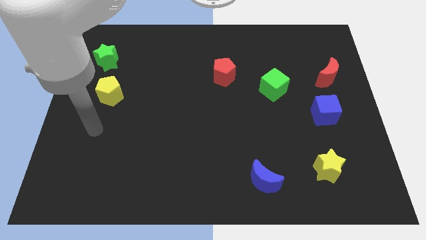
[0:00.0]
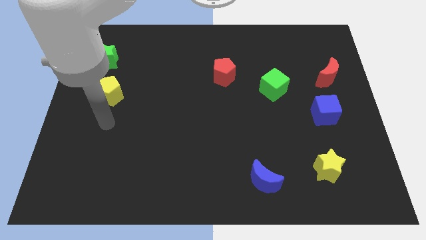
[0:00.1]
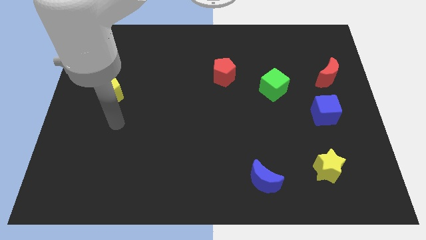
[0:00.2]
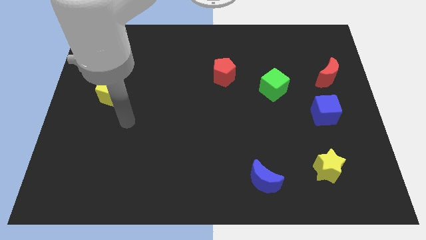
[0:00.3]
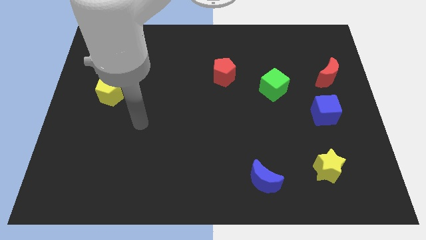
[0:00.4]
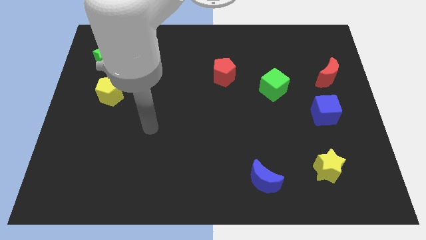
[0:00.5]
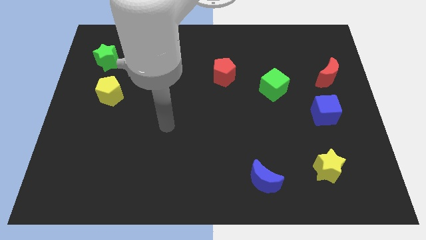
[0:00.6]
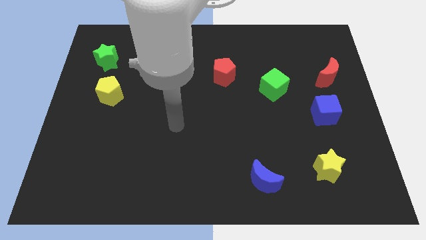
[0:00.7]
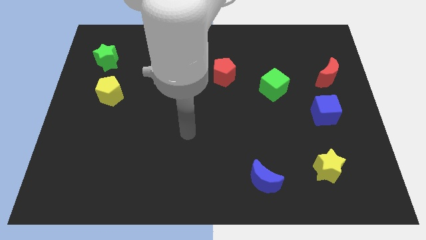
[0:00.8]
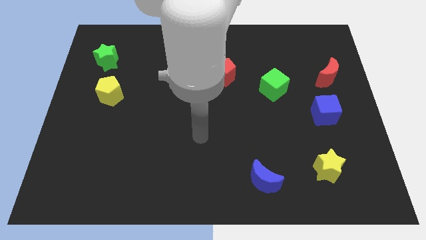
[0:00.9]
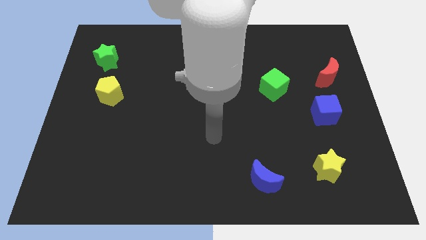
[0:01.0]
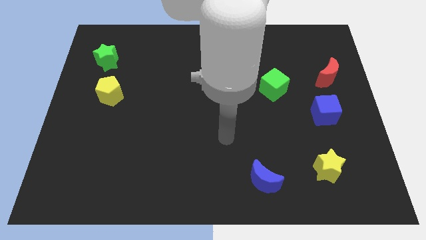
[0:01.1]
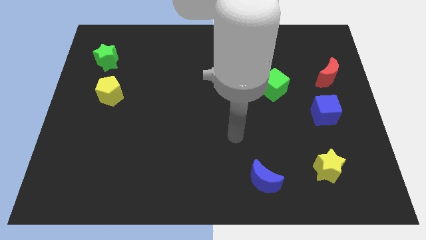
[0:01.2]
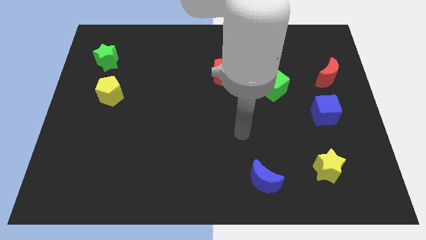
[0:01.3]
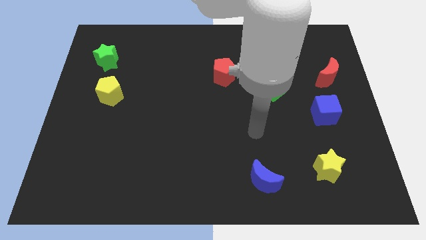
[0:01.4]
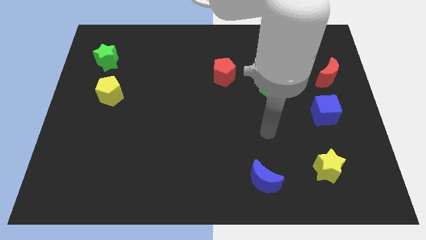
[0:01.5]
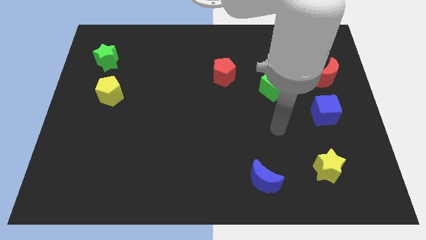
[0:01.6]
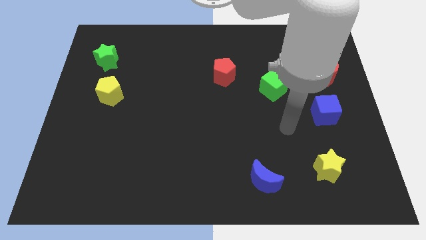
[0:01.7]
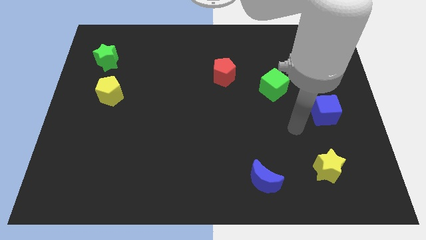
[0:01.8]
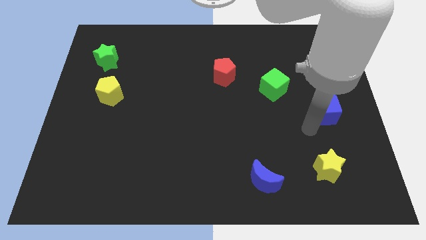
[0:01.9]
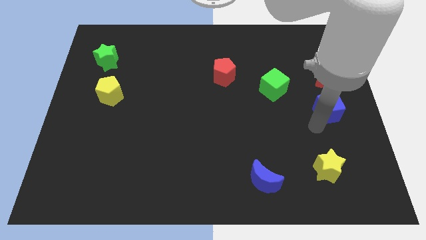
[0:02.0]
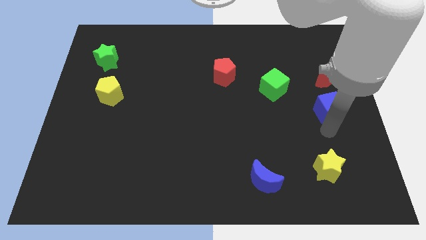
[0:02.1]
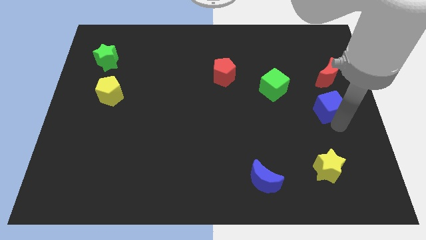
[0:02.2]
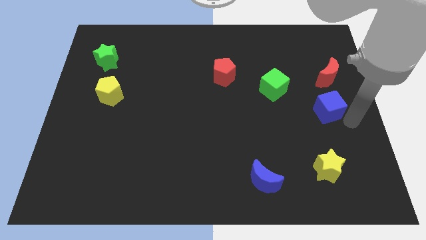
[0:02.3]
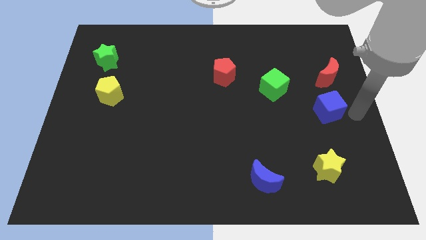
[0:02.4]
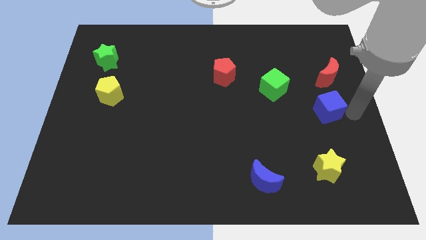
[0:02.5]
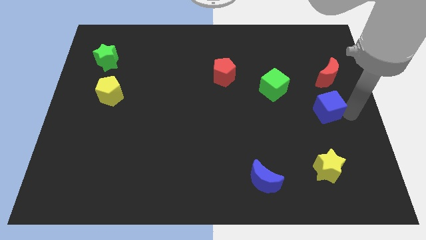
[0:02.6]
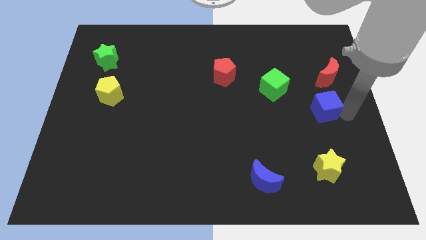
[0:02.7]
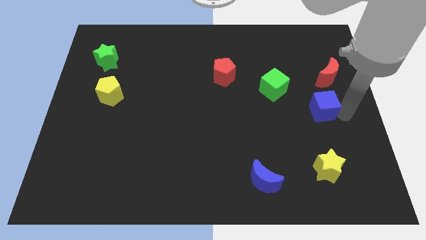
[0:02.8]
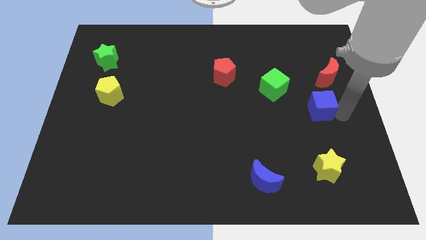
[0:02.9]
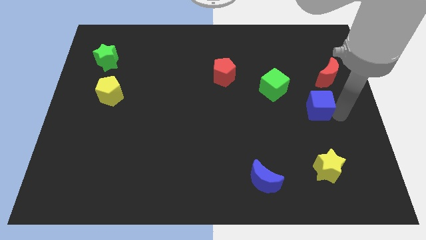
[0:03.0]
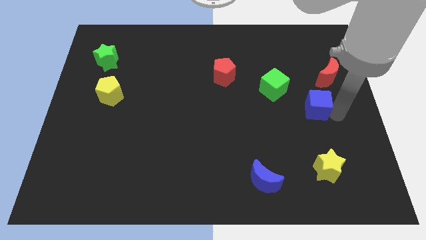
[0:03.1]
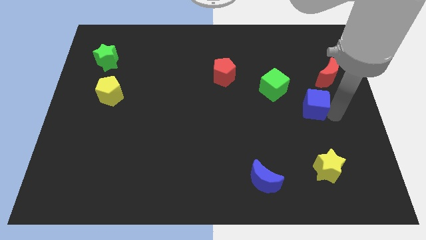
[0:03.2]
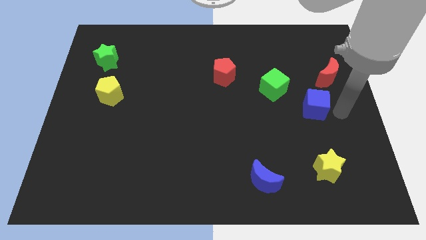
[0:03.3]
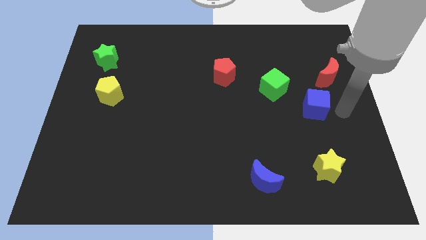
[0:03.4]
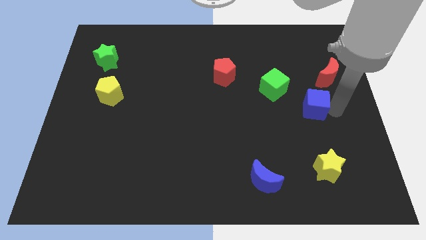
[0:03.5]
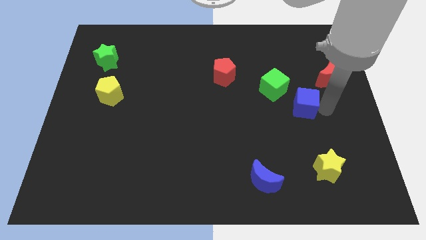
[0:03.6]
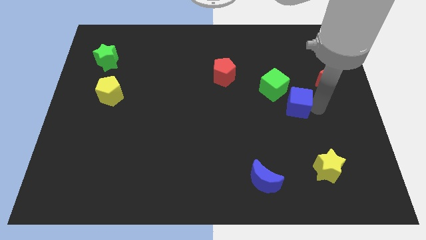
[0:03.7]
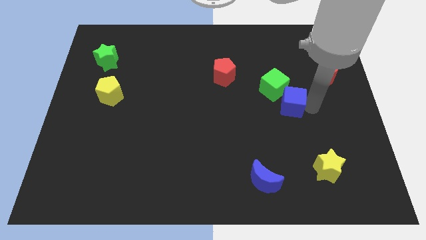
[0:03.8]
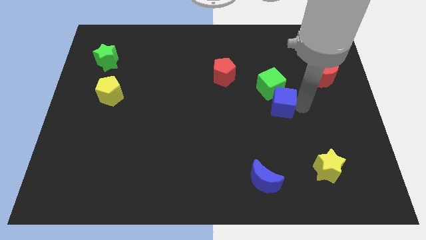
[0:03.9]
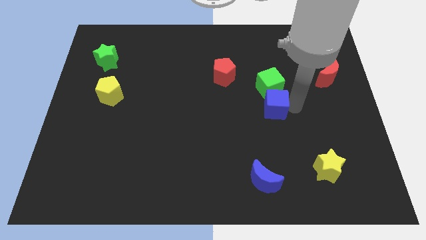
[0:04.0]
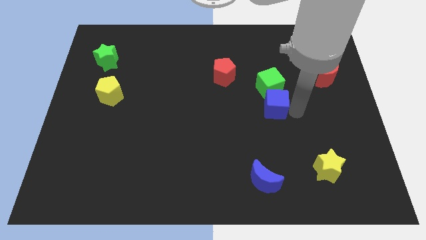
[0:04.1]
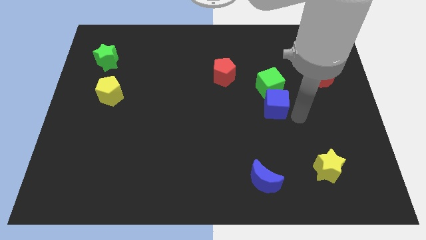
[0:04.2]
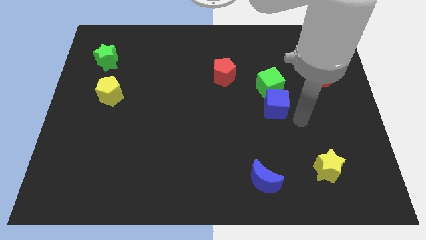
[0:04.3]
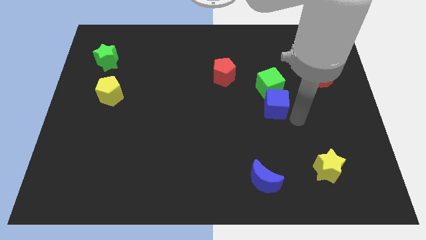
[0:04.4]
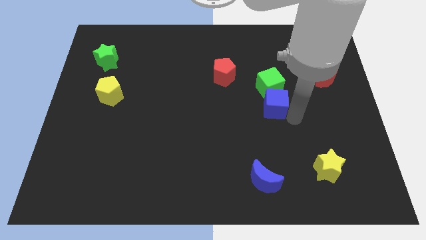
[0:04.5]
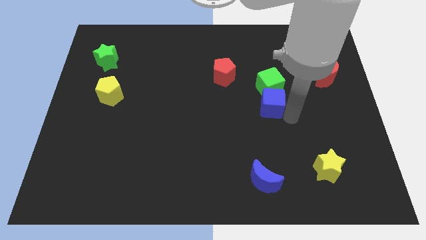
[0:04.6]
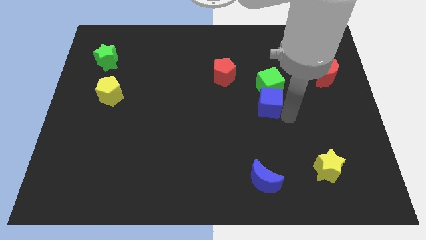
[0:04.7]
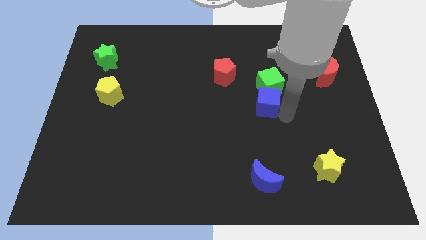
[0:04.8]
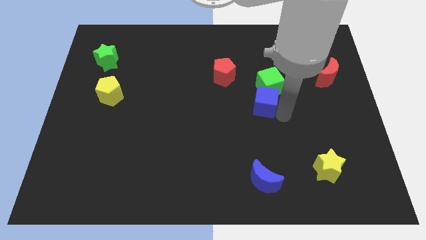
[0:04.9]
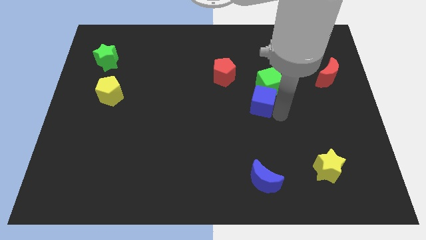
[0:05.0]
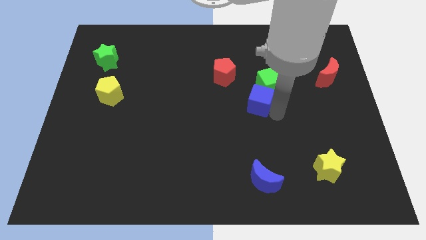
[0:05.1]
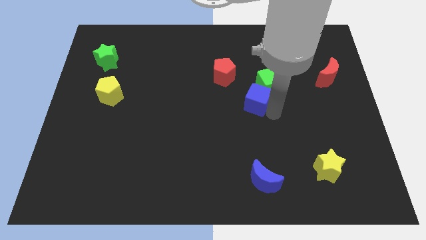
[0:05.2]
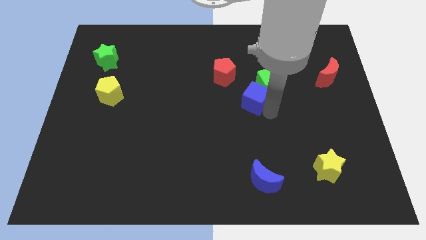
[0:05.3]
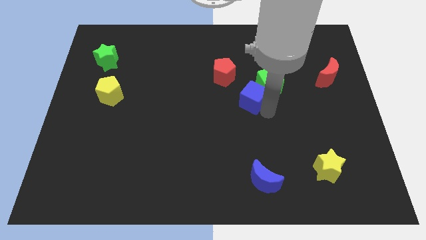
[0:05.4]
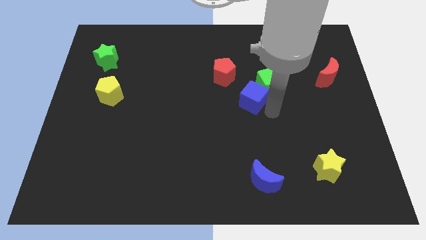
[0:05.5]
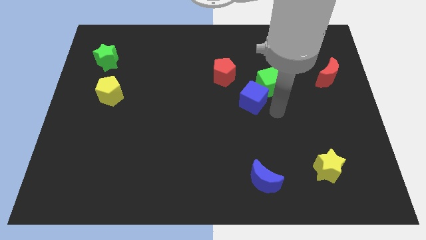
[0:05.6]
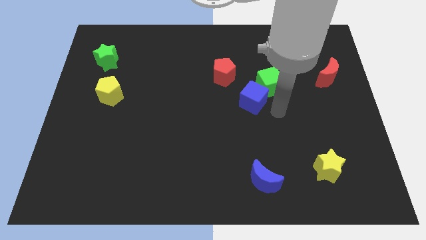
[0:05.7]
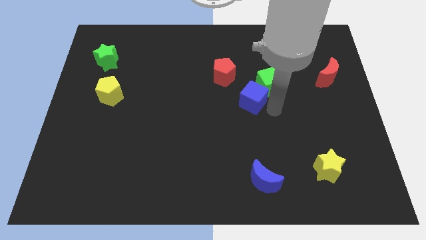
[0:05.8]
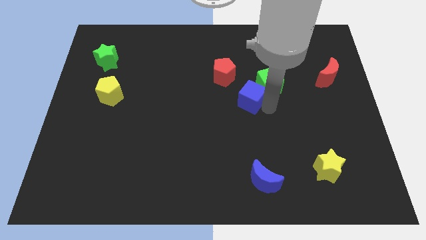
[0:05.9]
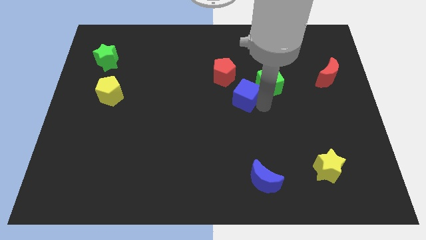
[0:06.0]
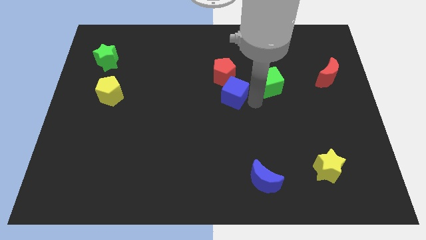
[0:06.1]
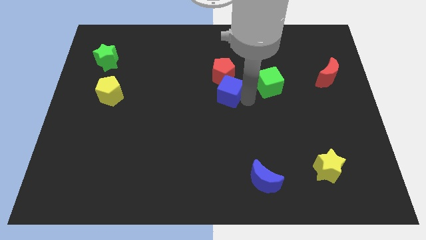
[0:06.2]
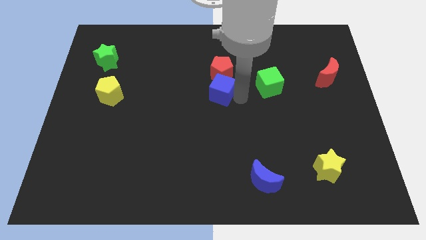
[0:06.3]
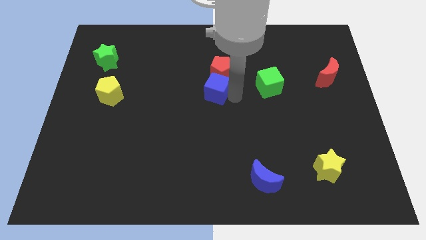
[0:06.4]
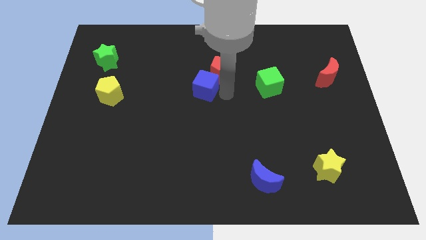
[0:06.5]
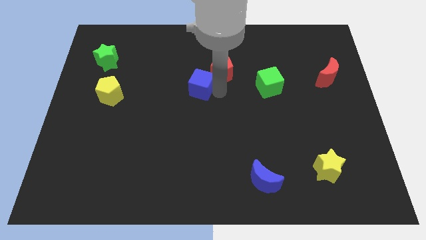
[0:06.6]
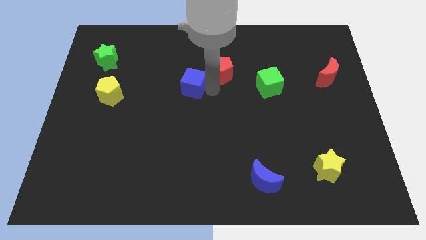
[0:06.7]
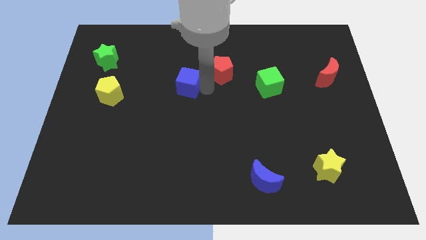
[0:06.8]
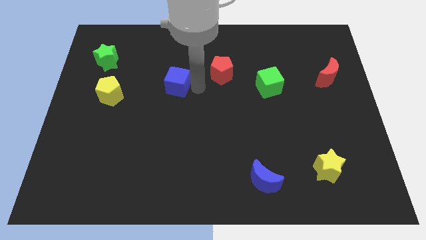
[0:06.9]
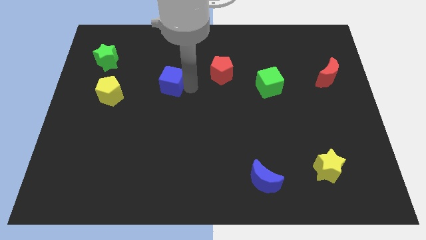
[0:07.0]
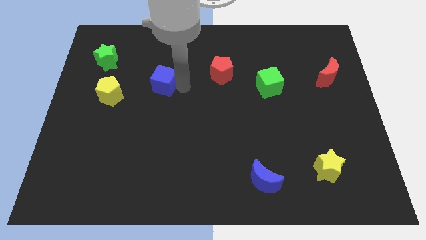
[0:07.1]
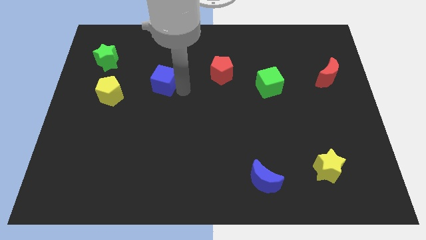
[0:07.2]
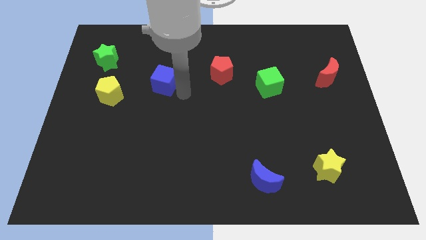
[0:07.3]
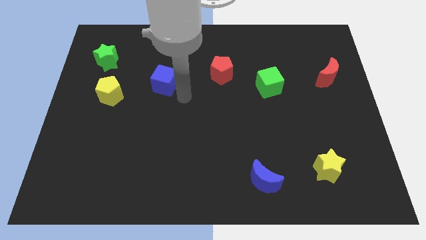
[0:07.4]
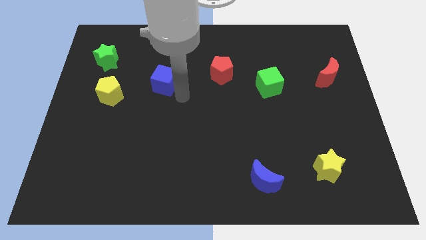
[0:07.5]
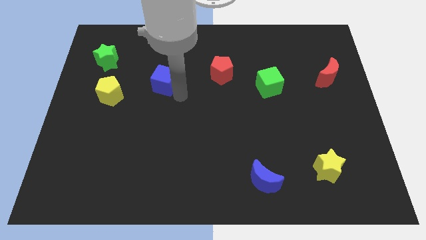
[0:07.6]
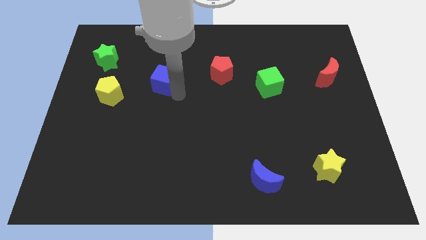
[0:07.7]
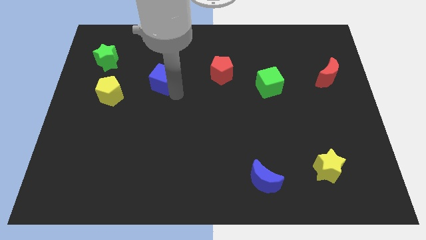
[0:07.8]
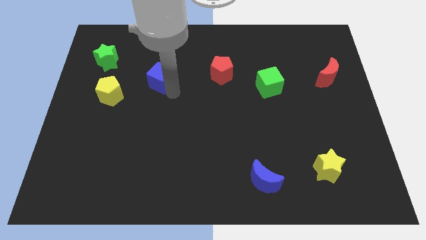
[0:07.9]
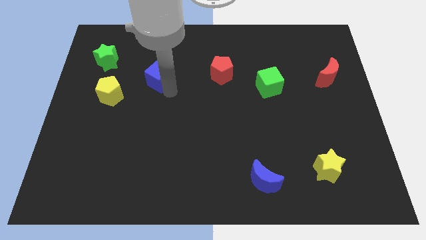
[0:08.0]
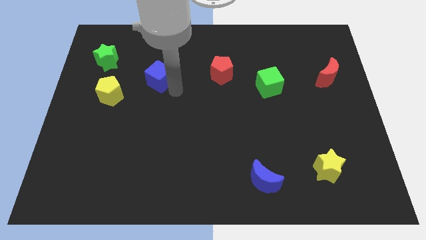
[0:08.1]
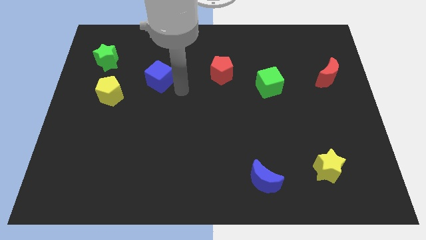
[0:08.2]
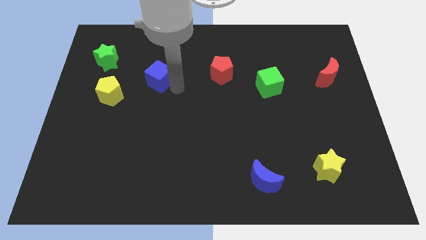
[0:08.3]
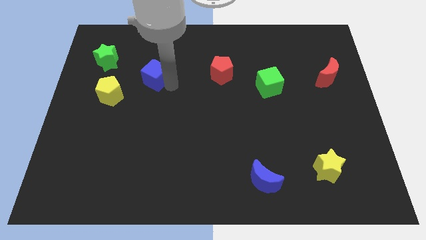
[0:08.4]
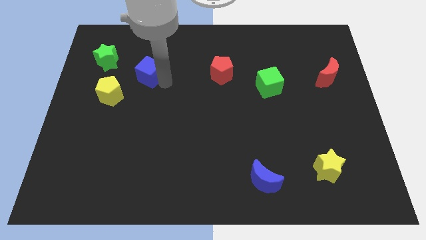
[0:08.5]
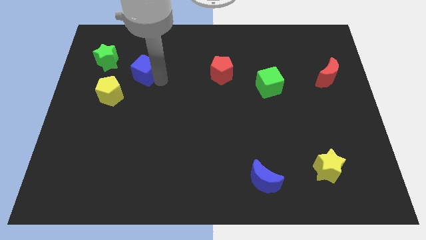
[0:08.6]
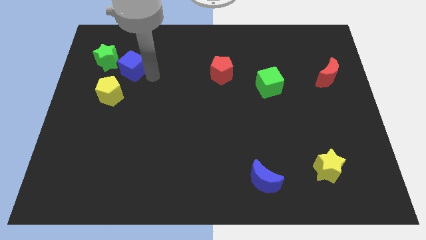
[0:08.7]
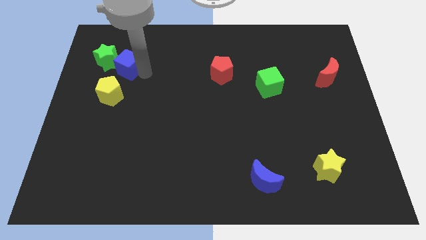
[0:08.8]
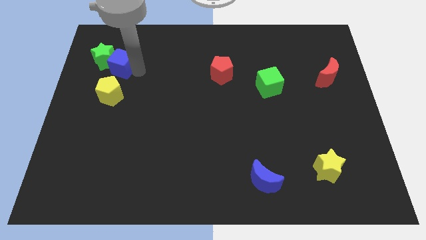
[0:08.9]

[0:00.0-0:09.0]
push the blue cube towards the green star
